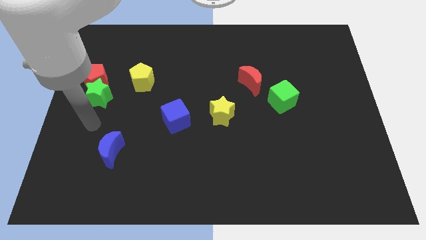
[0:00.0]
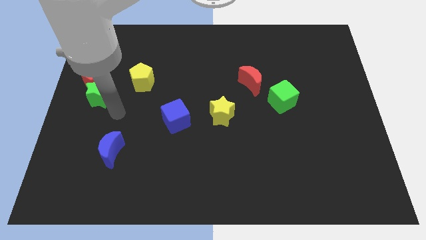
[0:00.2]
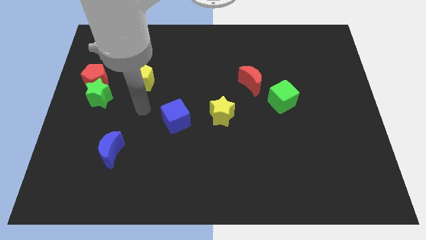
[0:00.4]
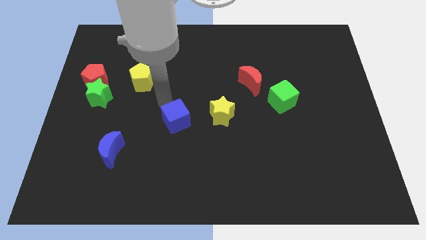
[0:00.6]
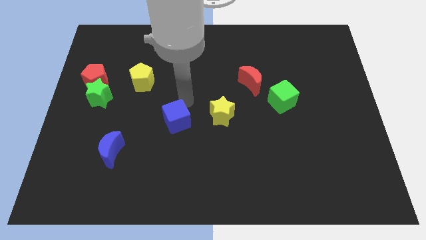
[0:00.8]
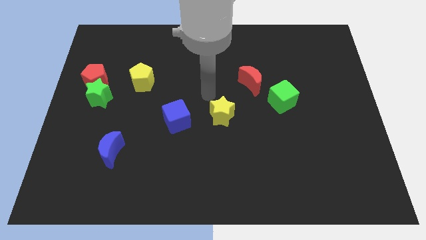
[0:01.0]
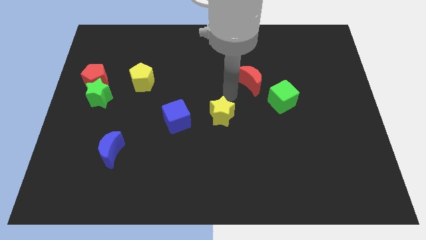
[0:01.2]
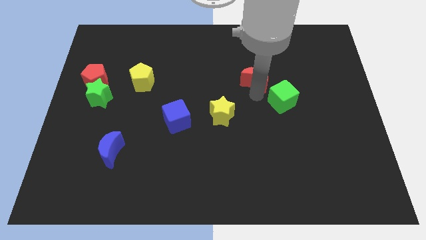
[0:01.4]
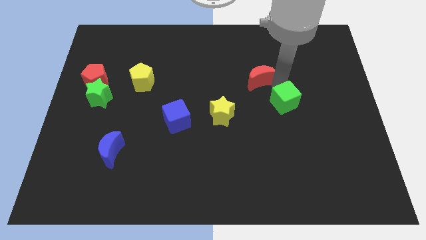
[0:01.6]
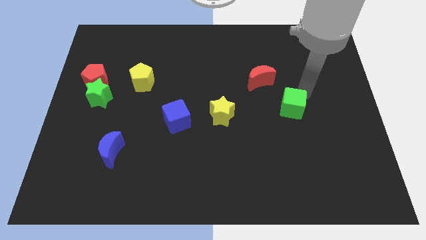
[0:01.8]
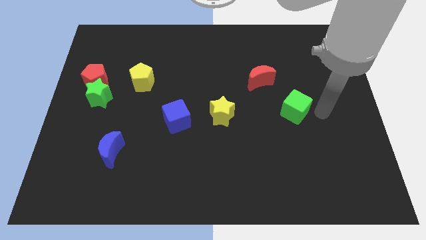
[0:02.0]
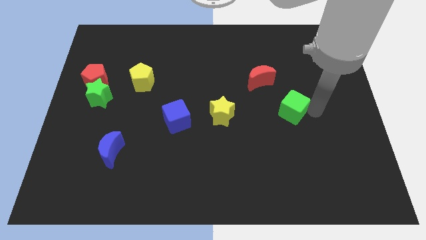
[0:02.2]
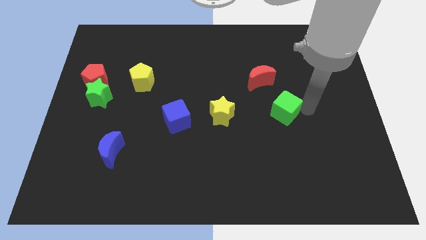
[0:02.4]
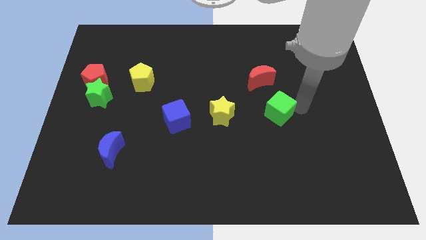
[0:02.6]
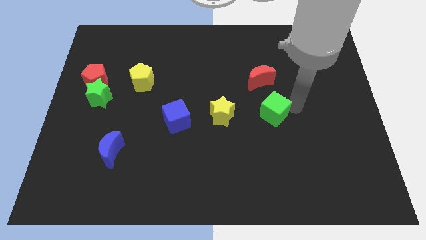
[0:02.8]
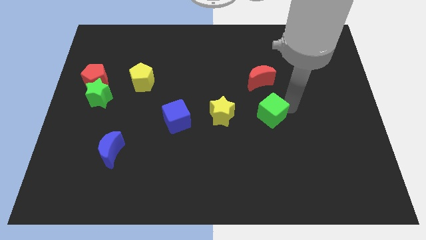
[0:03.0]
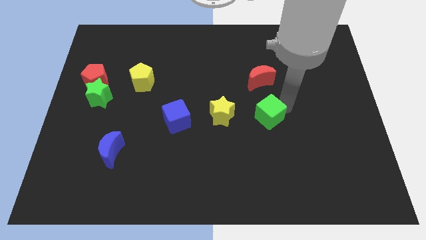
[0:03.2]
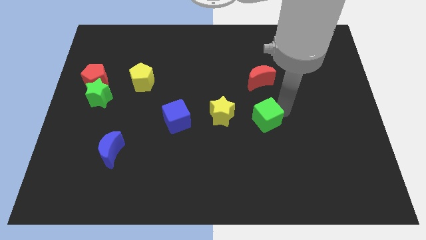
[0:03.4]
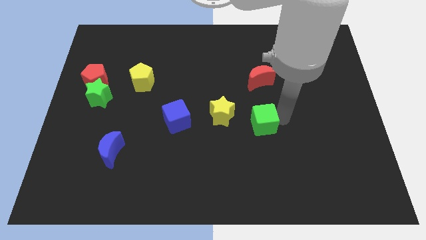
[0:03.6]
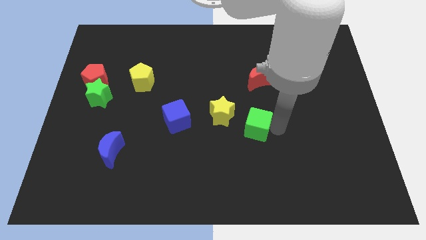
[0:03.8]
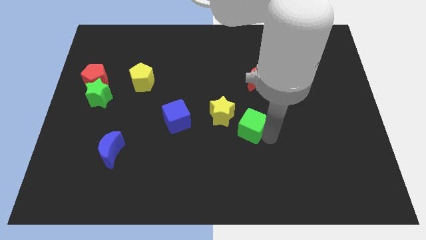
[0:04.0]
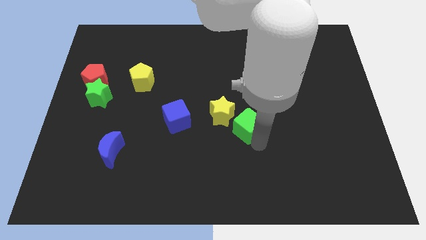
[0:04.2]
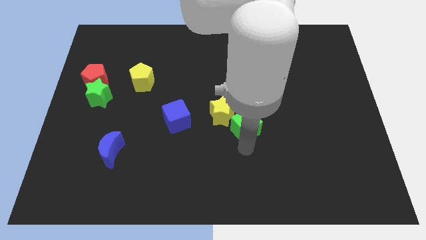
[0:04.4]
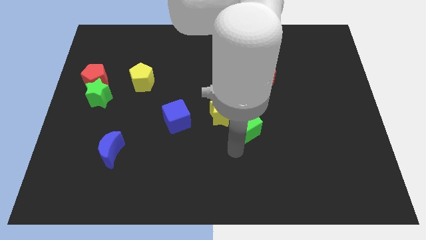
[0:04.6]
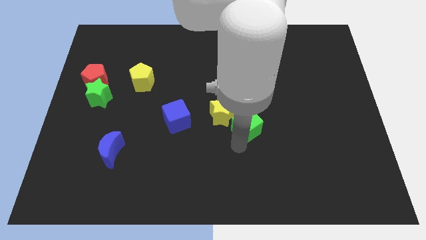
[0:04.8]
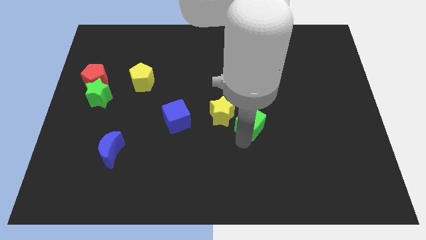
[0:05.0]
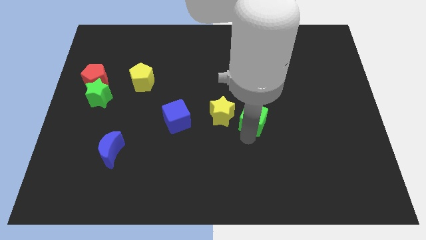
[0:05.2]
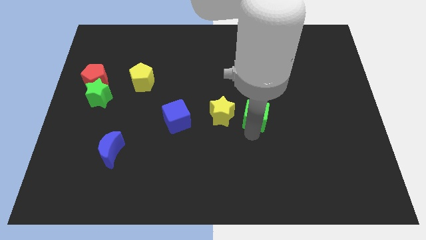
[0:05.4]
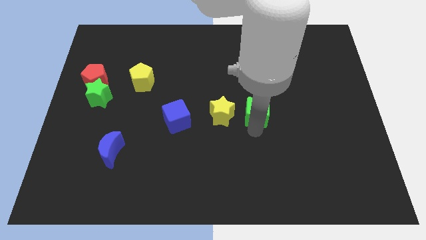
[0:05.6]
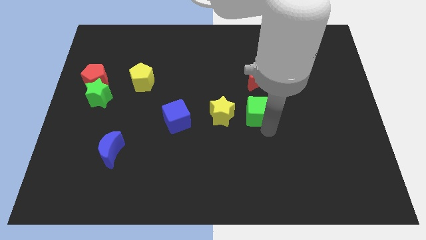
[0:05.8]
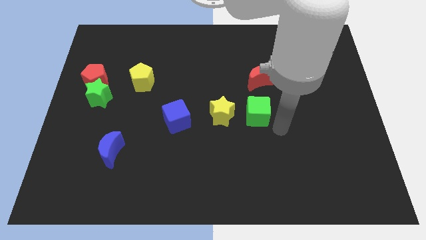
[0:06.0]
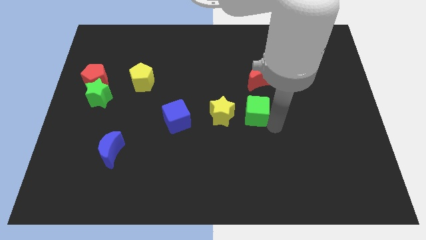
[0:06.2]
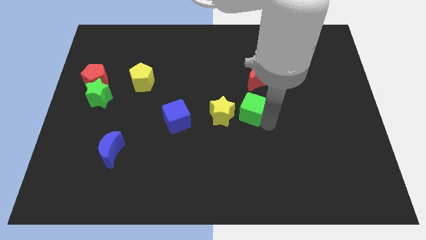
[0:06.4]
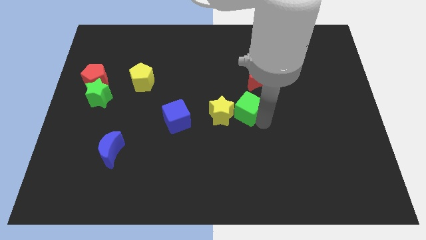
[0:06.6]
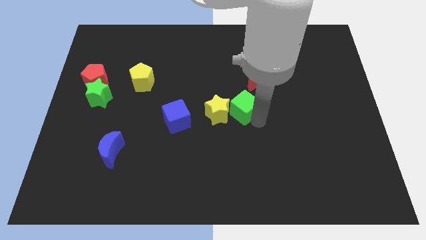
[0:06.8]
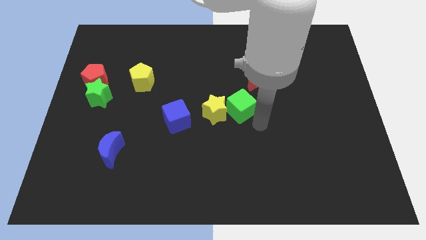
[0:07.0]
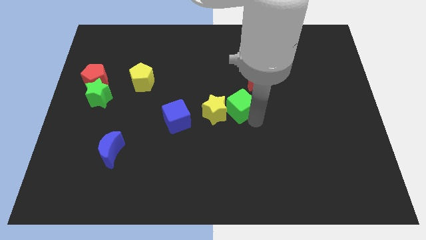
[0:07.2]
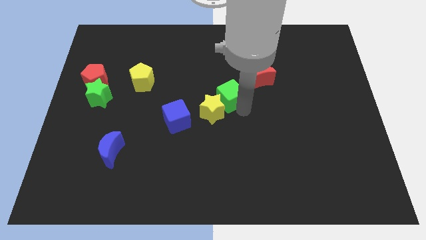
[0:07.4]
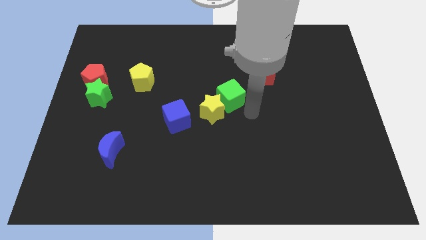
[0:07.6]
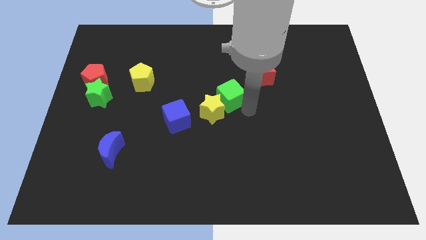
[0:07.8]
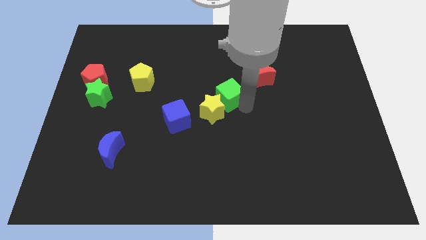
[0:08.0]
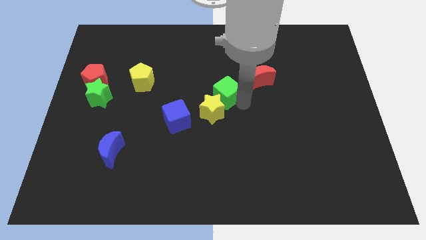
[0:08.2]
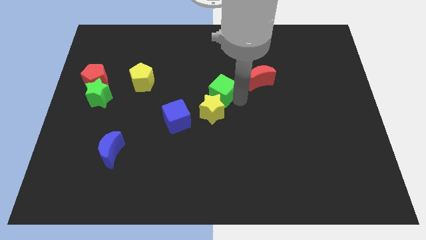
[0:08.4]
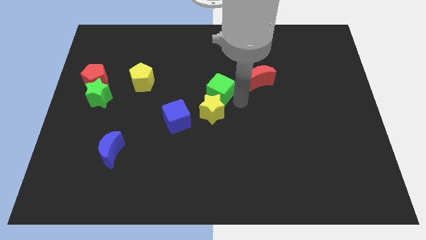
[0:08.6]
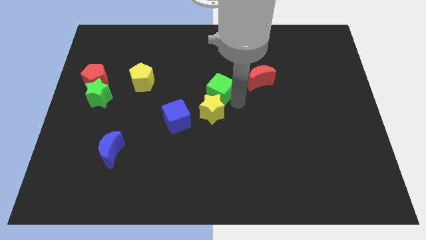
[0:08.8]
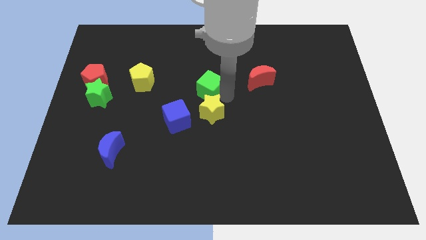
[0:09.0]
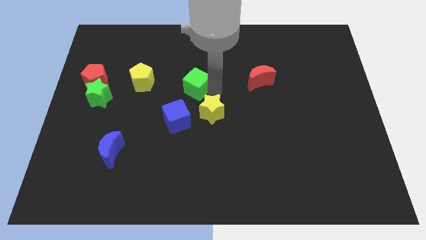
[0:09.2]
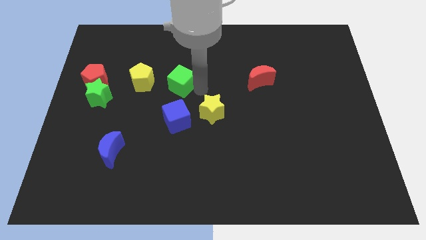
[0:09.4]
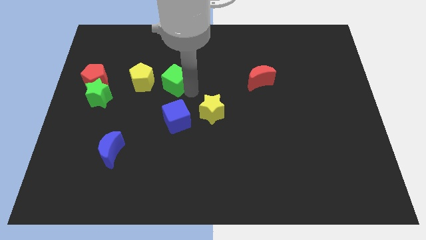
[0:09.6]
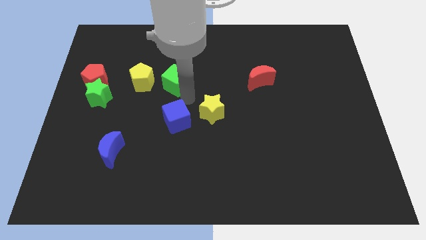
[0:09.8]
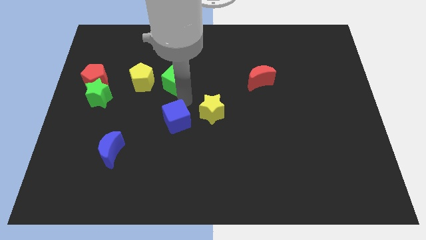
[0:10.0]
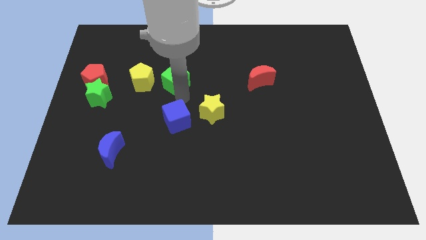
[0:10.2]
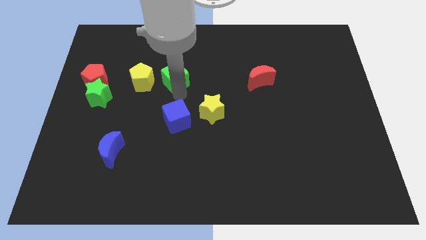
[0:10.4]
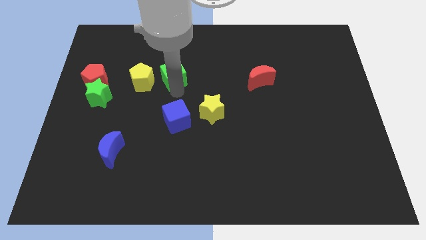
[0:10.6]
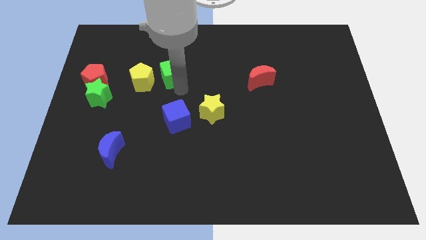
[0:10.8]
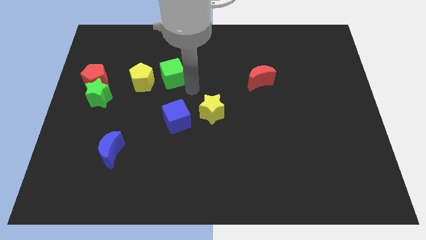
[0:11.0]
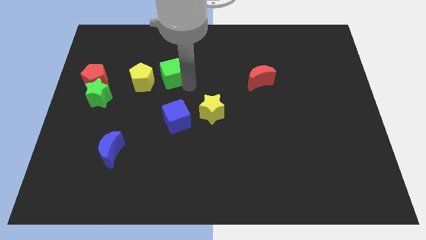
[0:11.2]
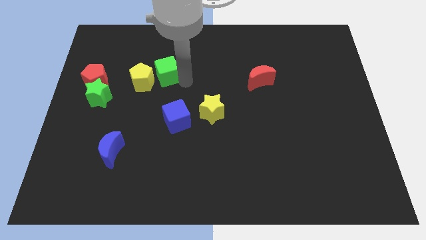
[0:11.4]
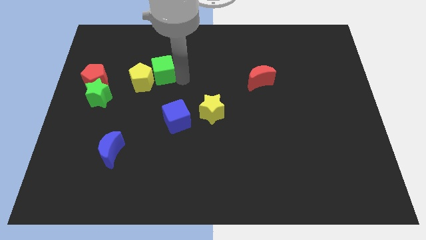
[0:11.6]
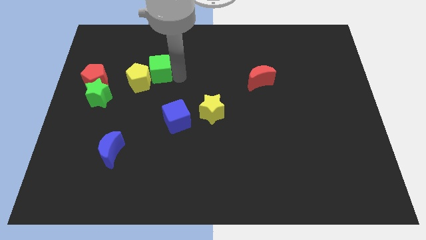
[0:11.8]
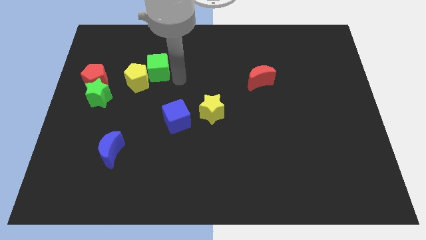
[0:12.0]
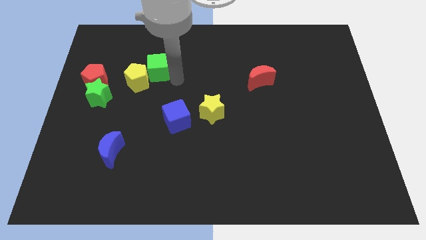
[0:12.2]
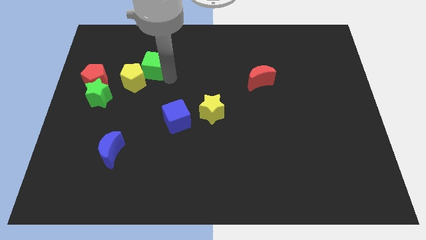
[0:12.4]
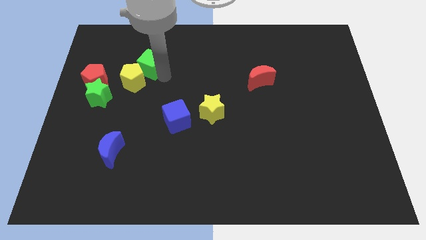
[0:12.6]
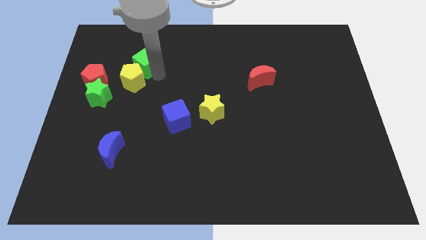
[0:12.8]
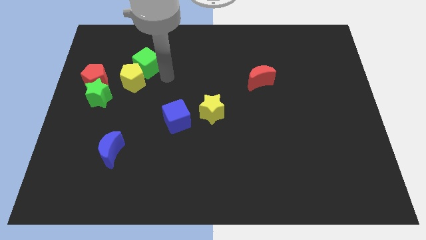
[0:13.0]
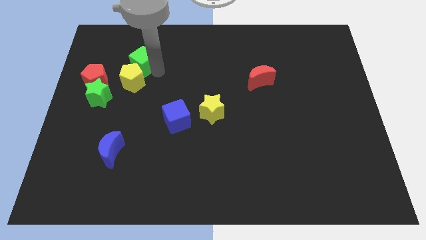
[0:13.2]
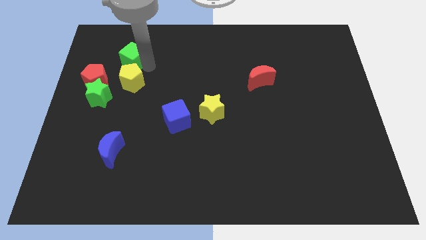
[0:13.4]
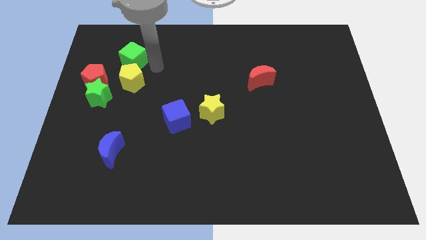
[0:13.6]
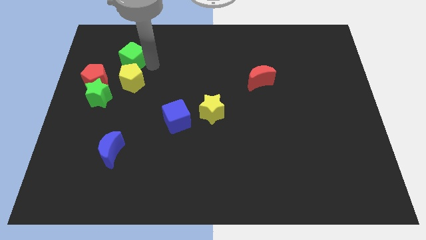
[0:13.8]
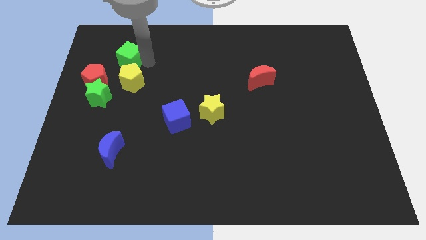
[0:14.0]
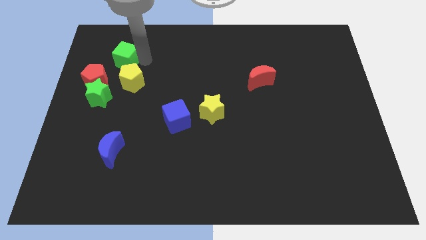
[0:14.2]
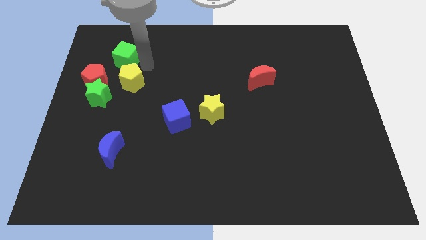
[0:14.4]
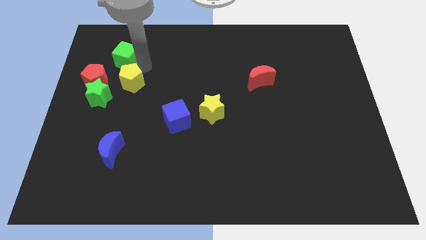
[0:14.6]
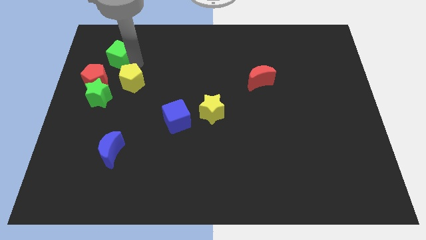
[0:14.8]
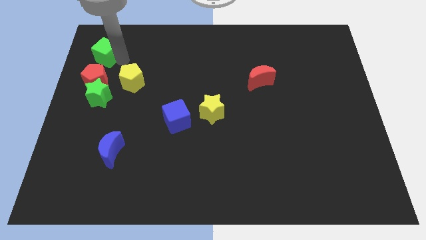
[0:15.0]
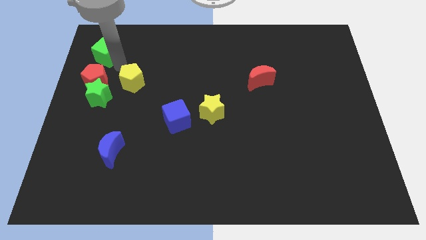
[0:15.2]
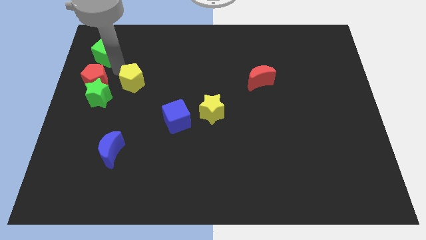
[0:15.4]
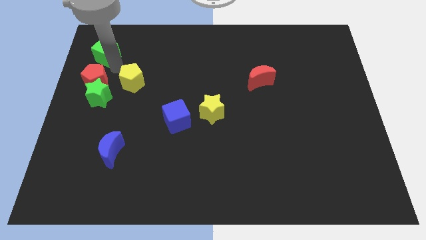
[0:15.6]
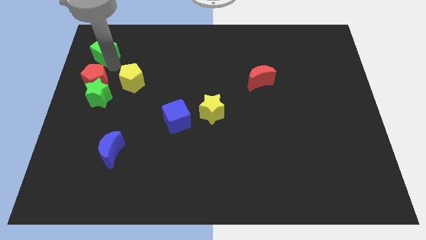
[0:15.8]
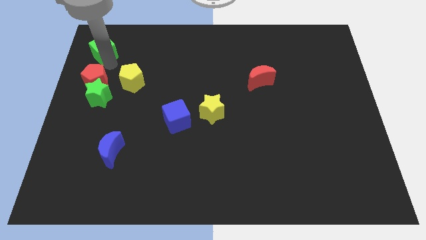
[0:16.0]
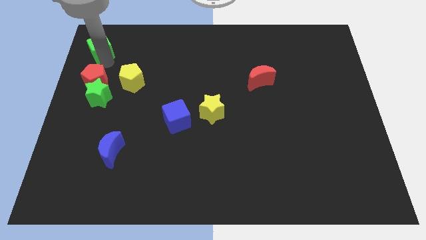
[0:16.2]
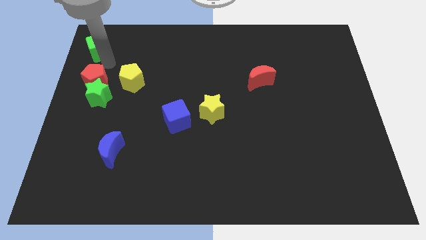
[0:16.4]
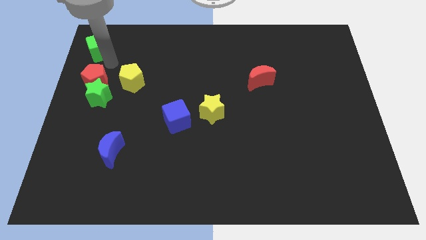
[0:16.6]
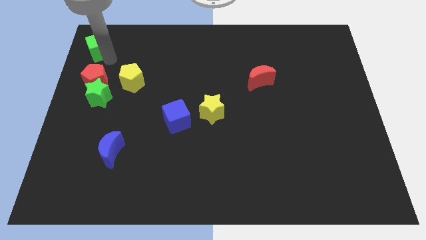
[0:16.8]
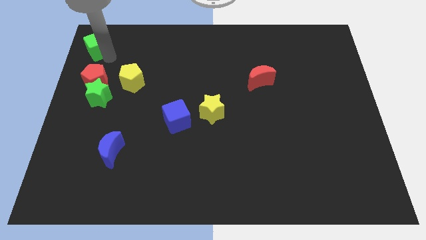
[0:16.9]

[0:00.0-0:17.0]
put the green cube to the top left corner
